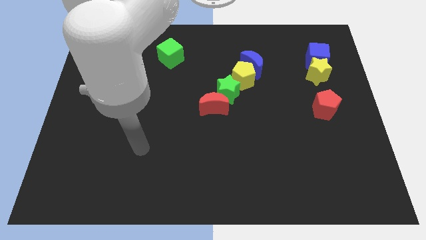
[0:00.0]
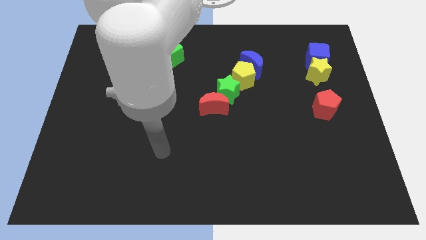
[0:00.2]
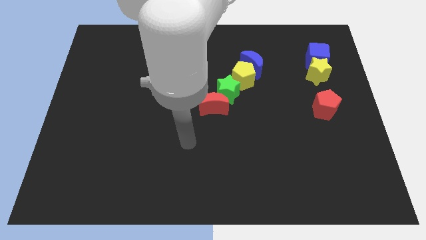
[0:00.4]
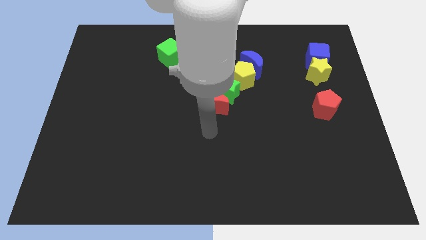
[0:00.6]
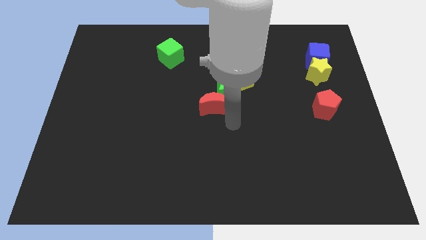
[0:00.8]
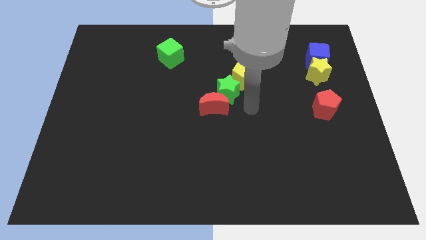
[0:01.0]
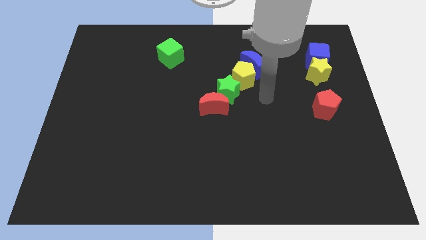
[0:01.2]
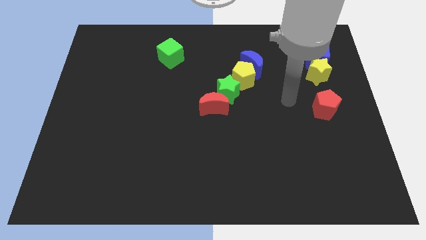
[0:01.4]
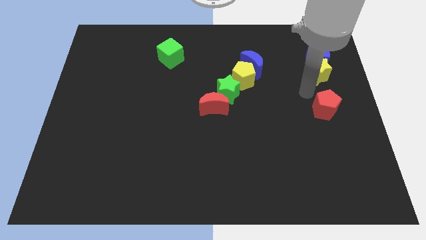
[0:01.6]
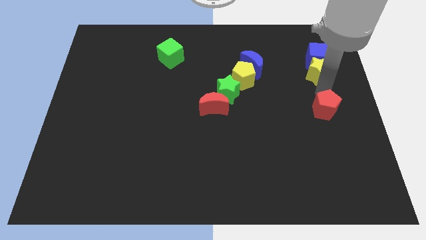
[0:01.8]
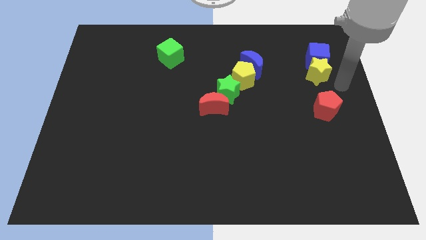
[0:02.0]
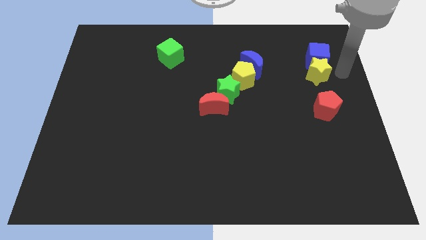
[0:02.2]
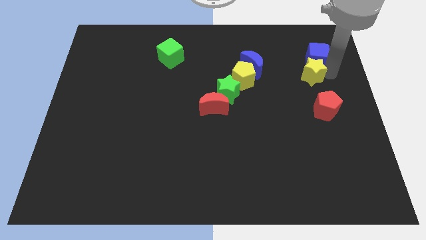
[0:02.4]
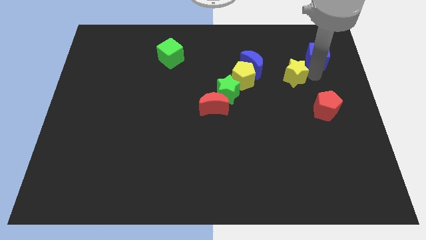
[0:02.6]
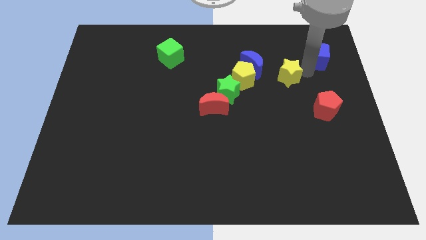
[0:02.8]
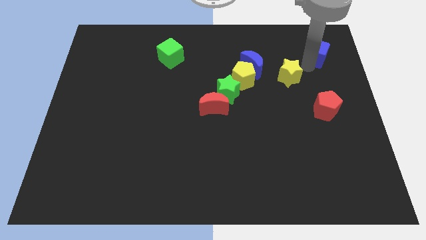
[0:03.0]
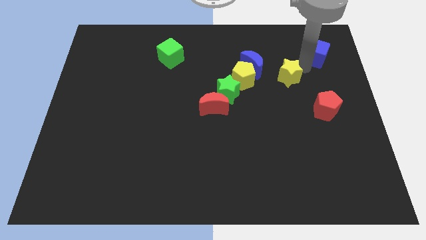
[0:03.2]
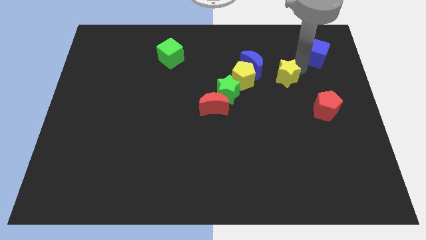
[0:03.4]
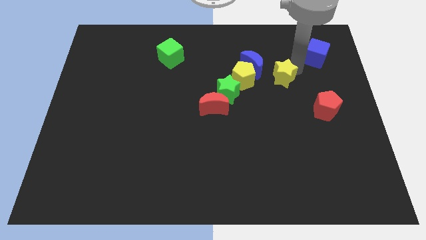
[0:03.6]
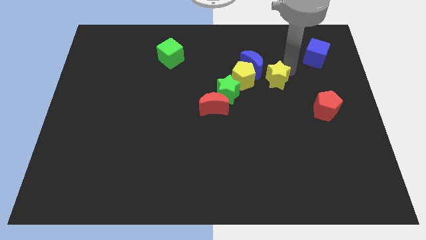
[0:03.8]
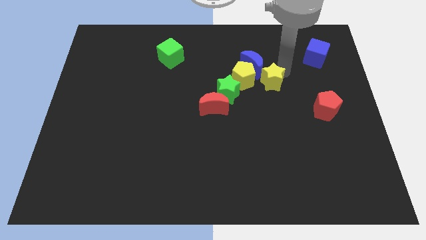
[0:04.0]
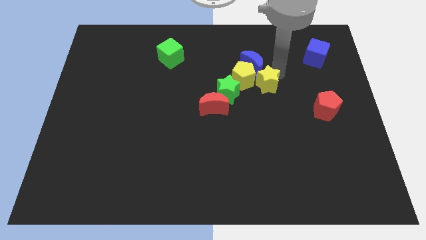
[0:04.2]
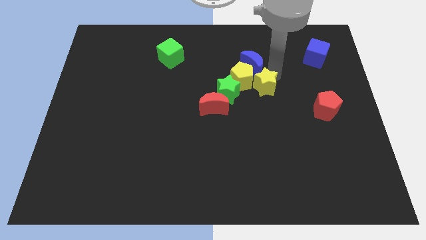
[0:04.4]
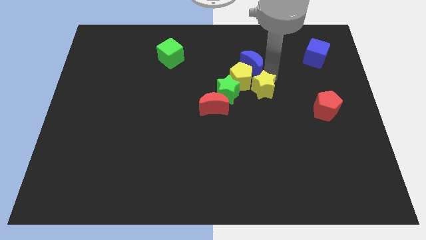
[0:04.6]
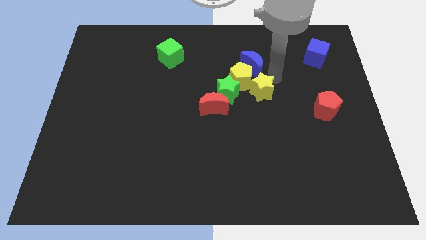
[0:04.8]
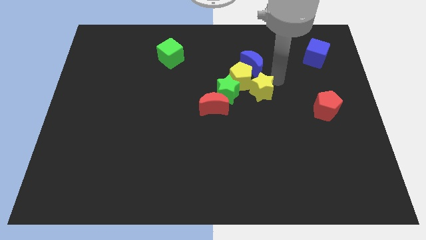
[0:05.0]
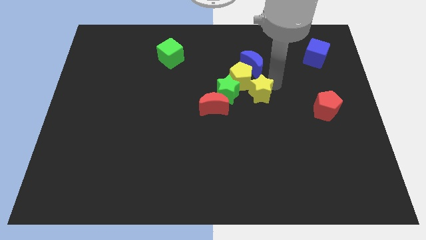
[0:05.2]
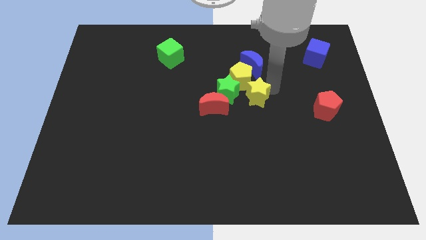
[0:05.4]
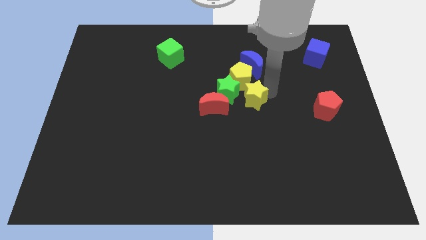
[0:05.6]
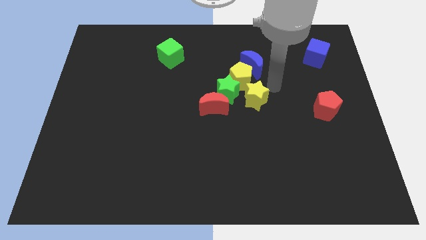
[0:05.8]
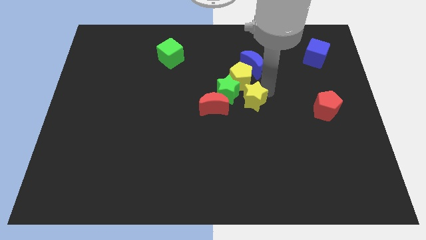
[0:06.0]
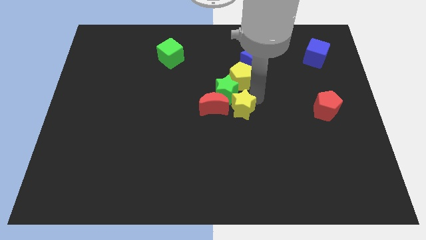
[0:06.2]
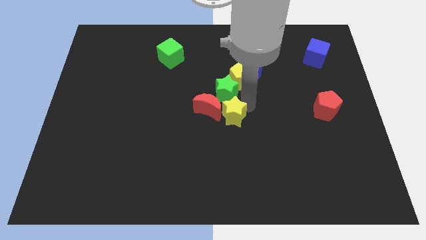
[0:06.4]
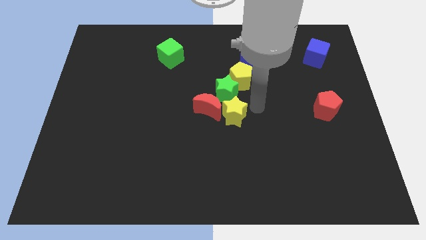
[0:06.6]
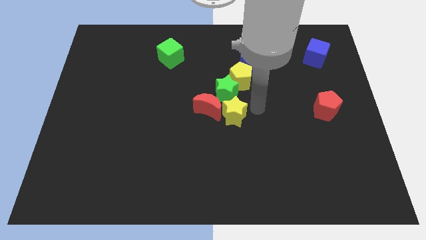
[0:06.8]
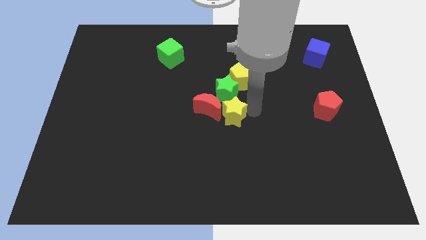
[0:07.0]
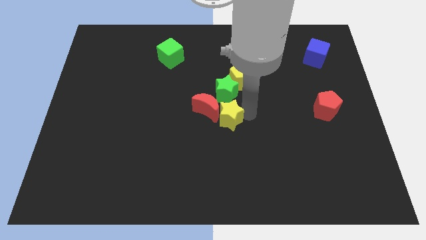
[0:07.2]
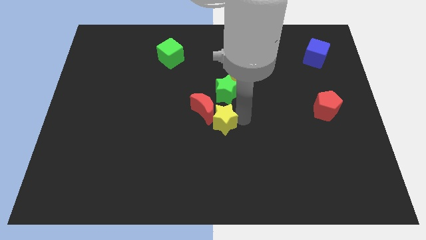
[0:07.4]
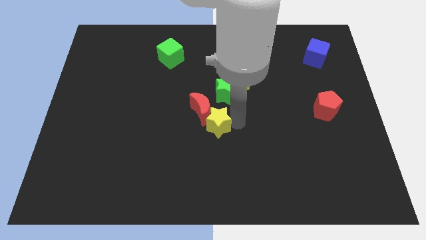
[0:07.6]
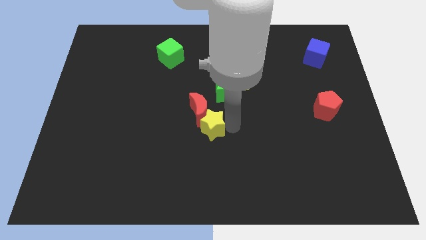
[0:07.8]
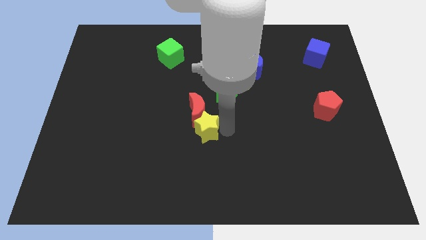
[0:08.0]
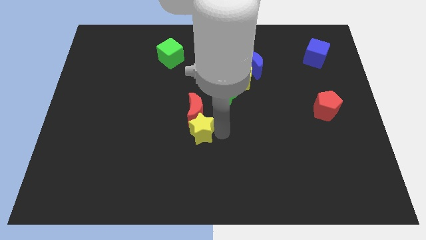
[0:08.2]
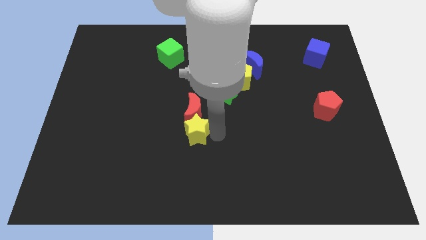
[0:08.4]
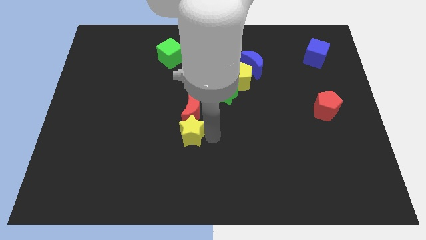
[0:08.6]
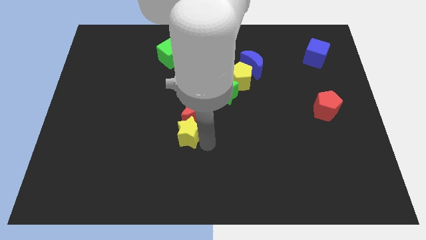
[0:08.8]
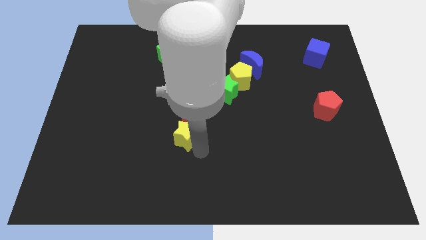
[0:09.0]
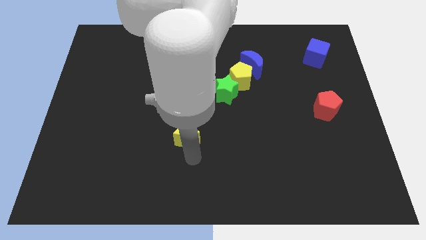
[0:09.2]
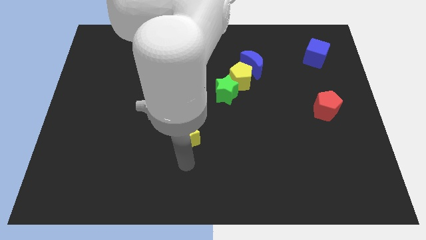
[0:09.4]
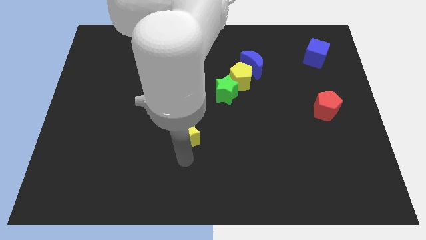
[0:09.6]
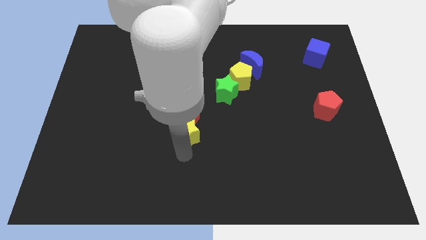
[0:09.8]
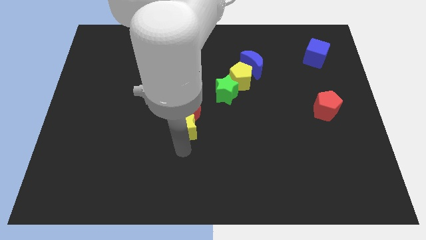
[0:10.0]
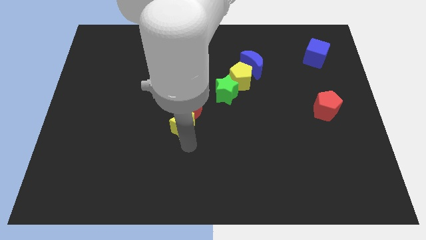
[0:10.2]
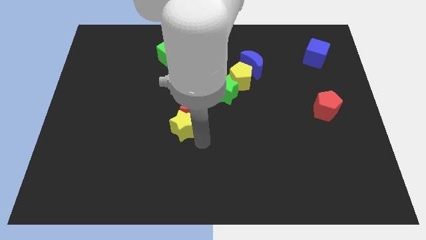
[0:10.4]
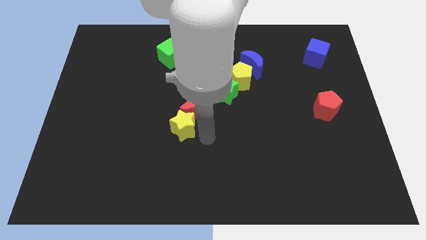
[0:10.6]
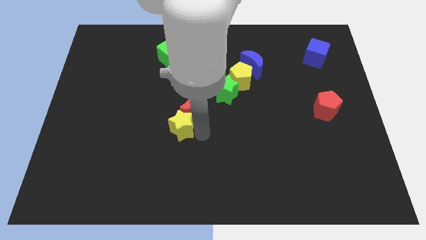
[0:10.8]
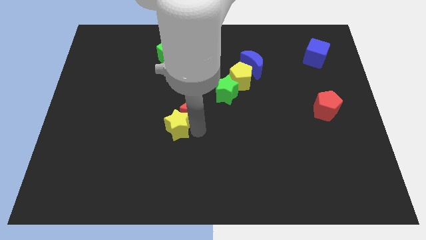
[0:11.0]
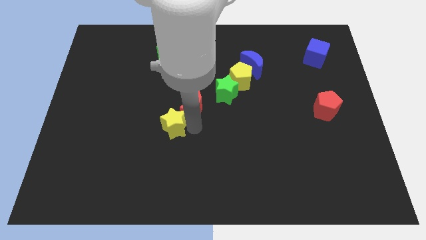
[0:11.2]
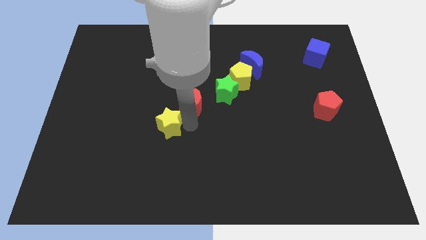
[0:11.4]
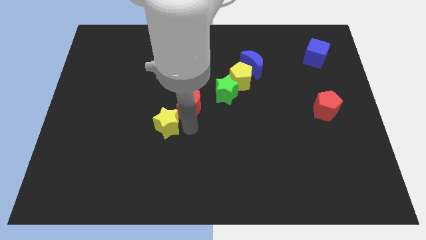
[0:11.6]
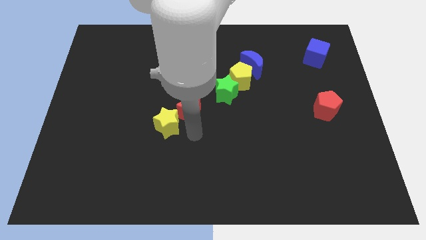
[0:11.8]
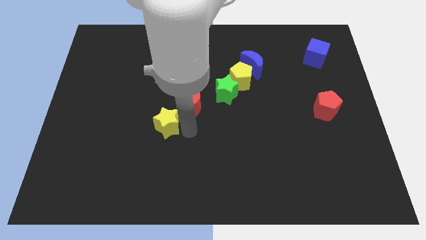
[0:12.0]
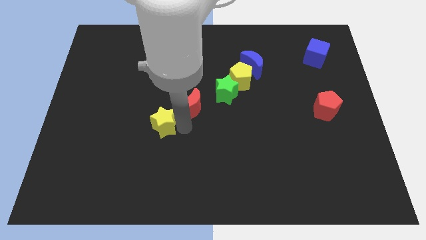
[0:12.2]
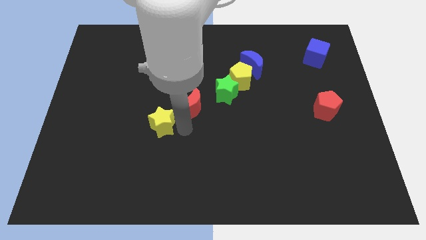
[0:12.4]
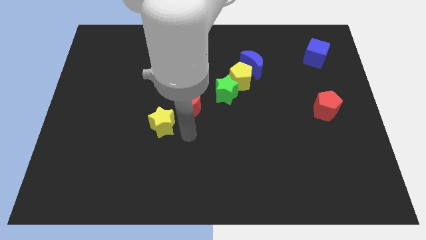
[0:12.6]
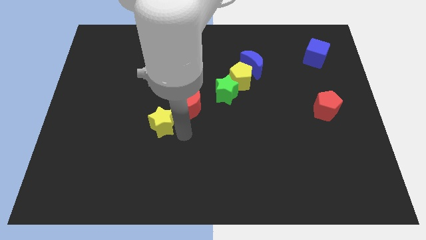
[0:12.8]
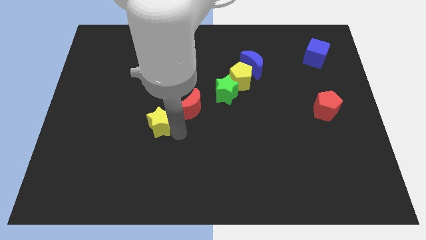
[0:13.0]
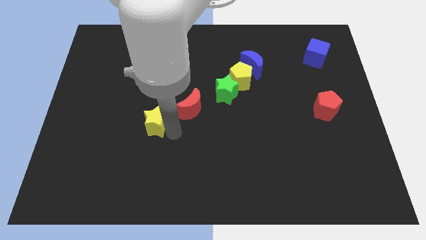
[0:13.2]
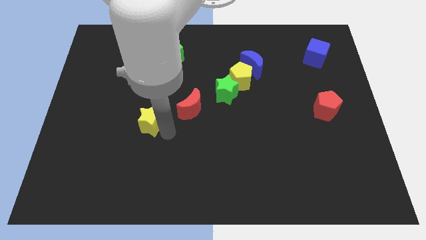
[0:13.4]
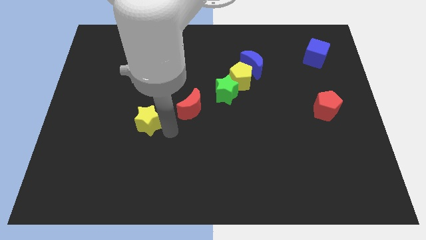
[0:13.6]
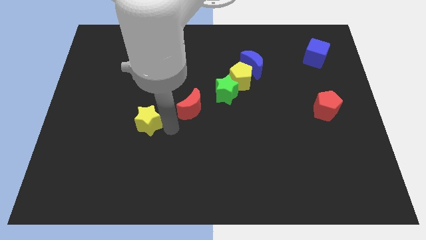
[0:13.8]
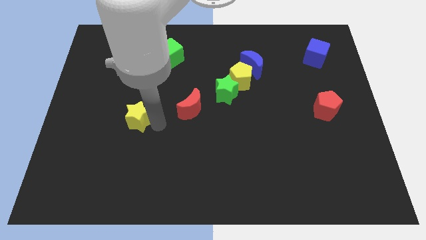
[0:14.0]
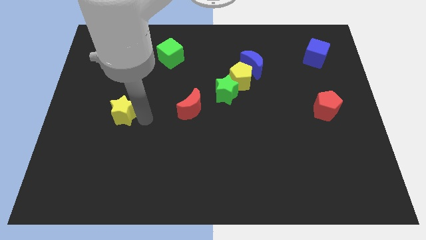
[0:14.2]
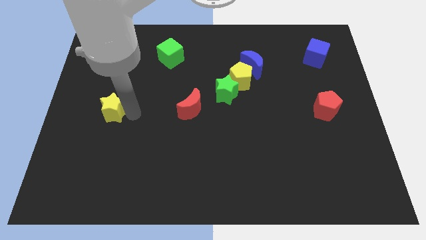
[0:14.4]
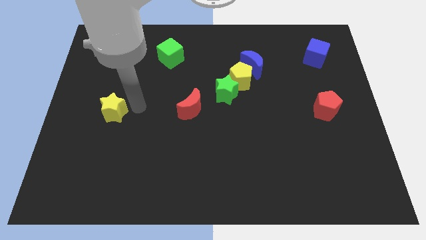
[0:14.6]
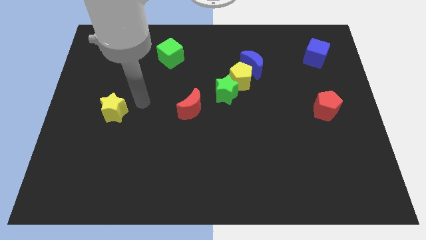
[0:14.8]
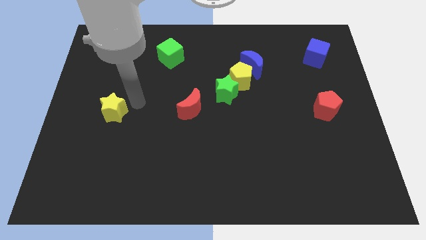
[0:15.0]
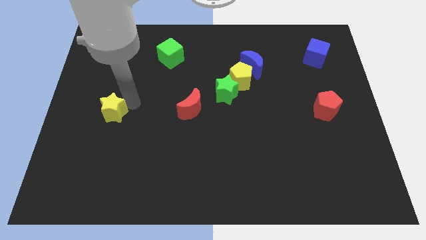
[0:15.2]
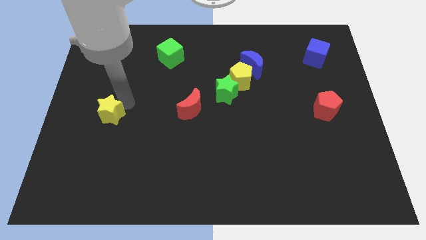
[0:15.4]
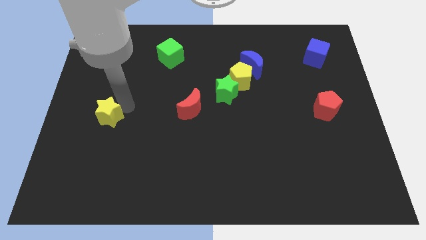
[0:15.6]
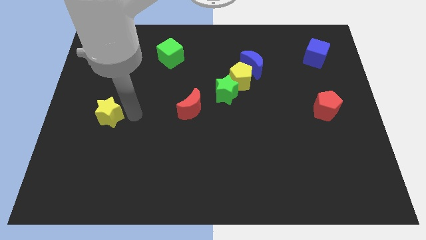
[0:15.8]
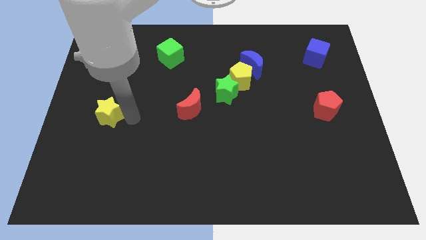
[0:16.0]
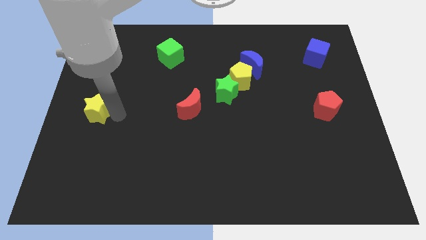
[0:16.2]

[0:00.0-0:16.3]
push the yellow star to the left side
